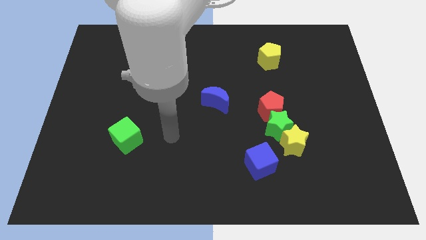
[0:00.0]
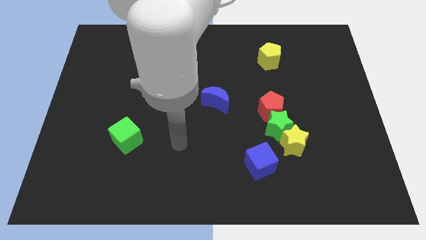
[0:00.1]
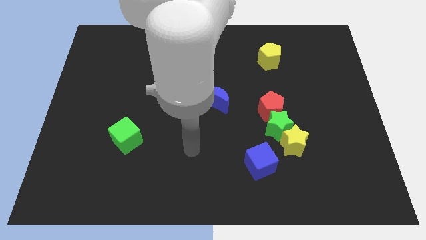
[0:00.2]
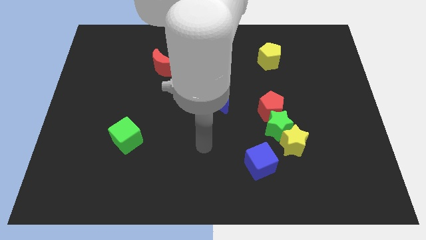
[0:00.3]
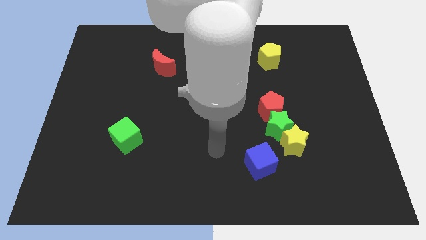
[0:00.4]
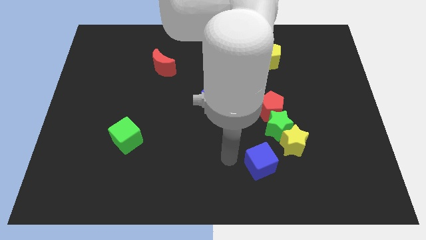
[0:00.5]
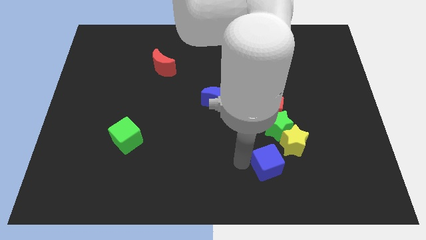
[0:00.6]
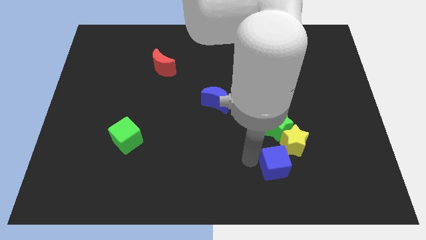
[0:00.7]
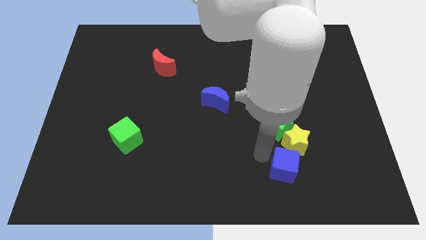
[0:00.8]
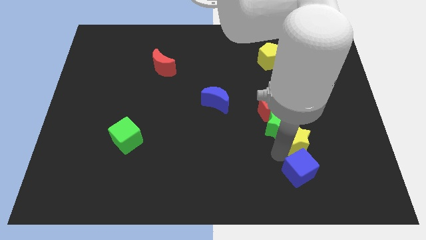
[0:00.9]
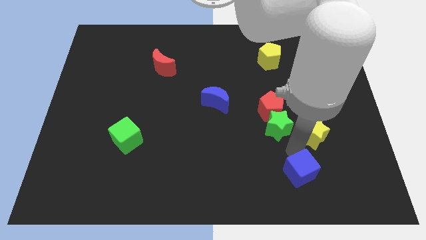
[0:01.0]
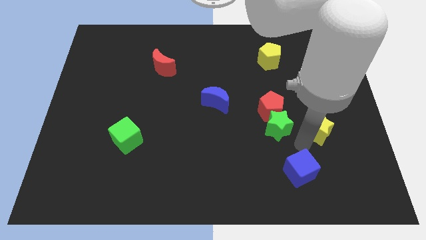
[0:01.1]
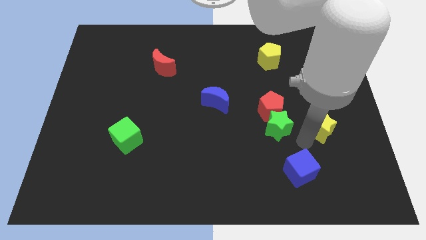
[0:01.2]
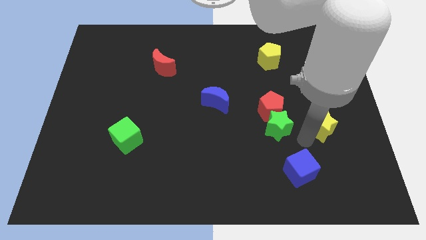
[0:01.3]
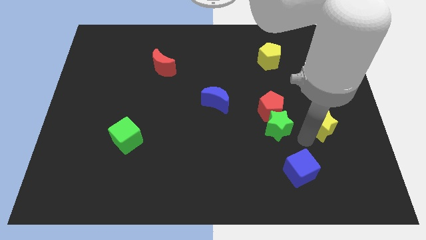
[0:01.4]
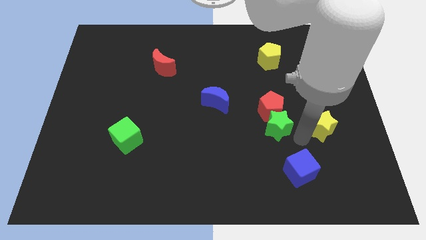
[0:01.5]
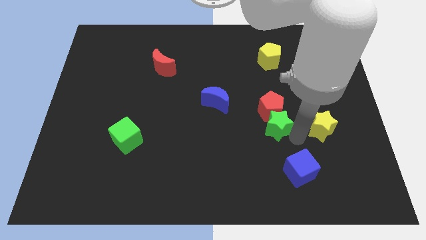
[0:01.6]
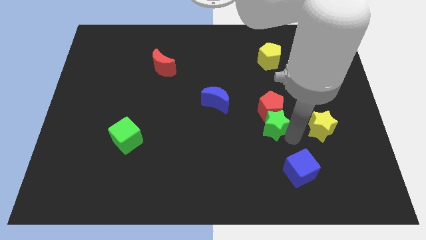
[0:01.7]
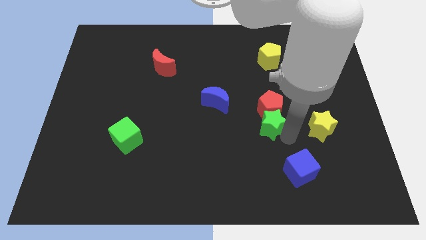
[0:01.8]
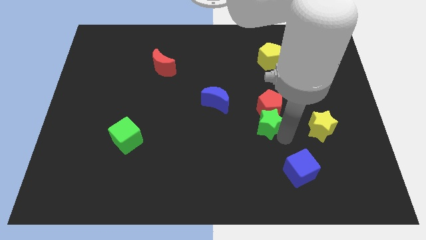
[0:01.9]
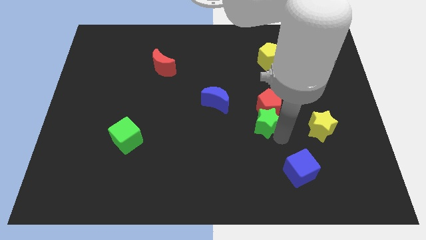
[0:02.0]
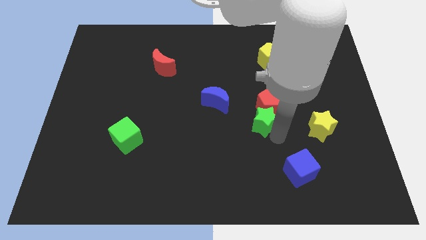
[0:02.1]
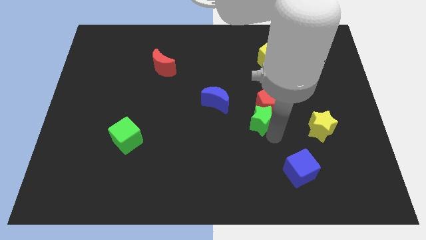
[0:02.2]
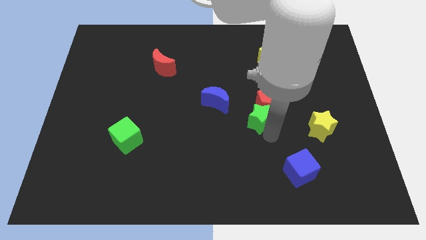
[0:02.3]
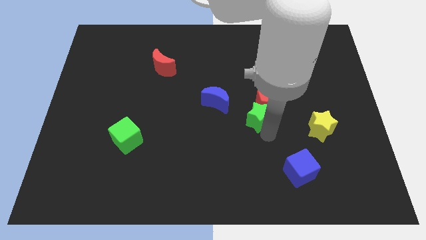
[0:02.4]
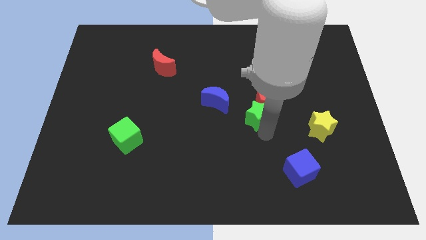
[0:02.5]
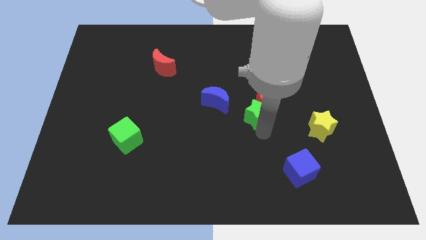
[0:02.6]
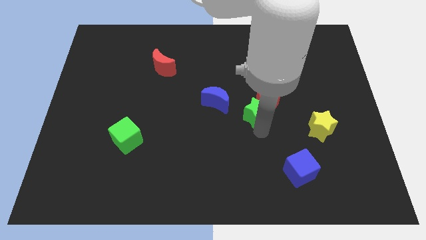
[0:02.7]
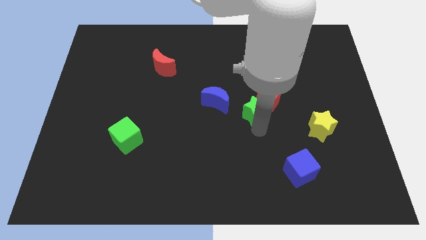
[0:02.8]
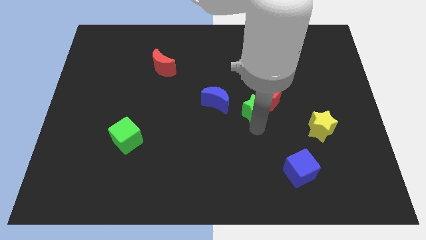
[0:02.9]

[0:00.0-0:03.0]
move the green star away from the group

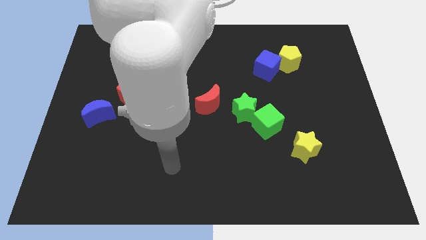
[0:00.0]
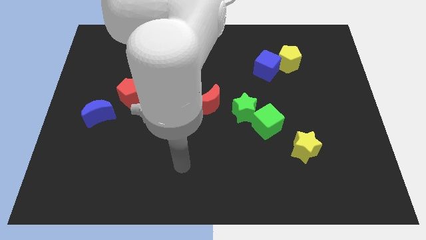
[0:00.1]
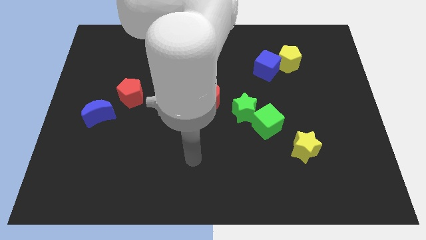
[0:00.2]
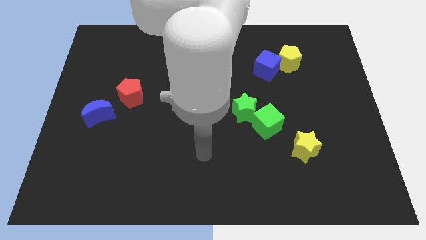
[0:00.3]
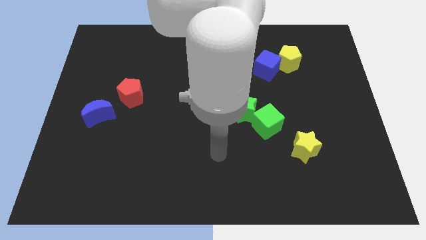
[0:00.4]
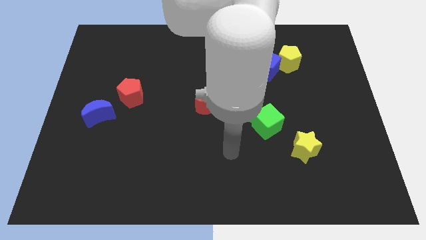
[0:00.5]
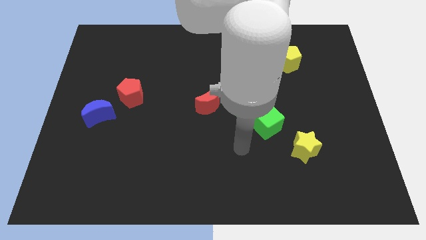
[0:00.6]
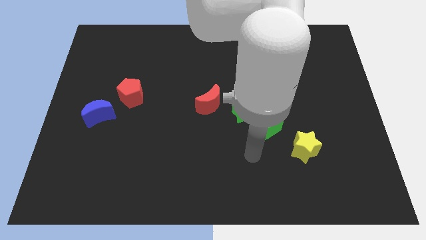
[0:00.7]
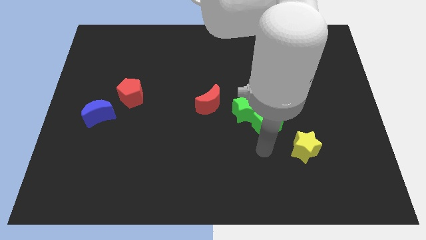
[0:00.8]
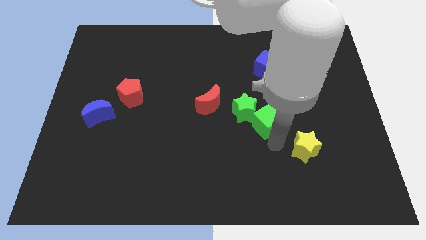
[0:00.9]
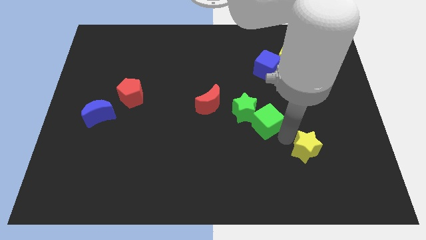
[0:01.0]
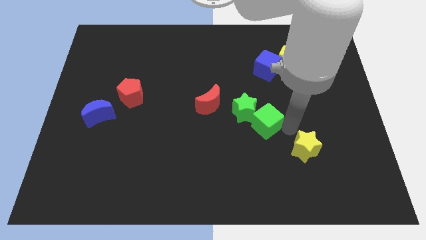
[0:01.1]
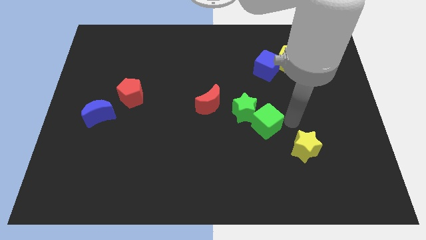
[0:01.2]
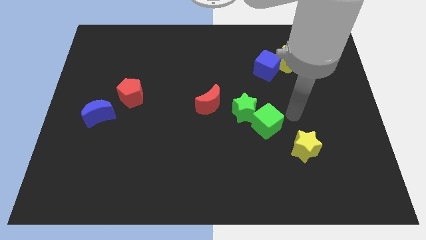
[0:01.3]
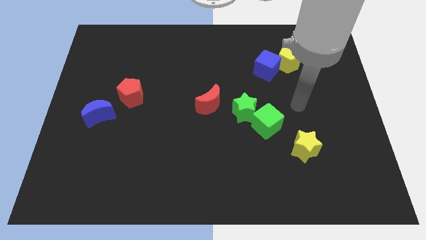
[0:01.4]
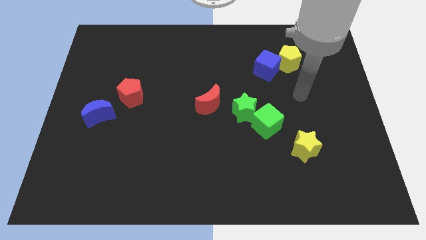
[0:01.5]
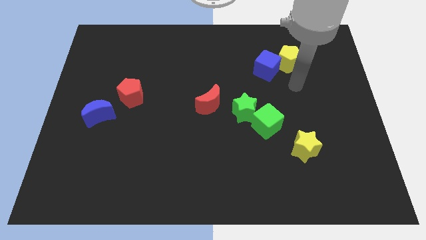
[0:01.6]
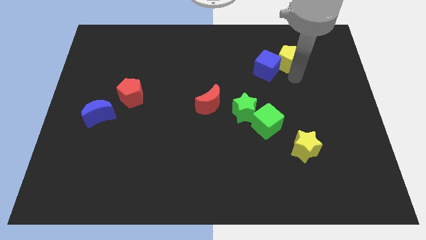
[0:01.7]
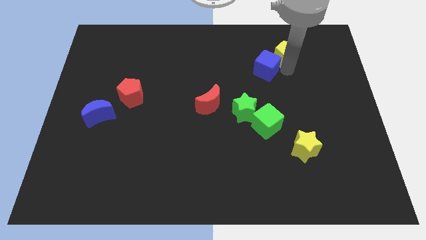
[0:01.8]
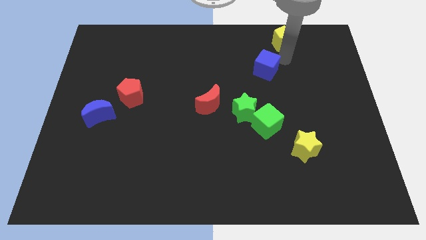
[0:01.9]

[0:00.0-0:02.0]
pull the blue cube apart from the yellow pentagon

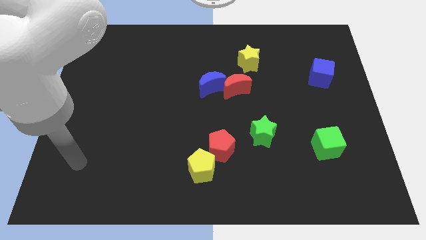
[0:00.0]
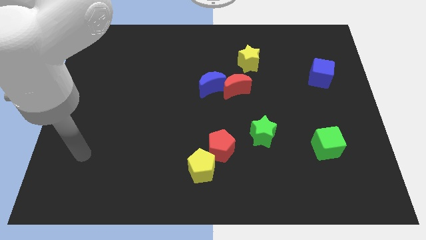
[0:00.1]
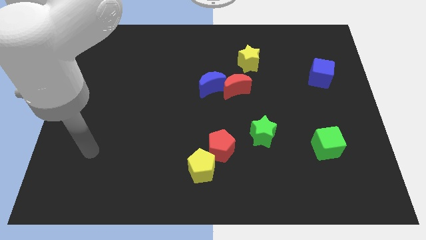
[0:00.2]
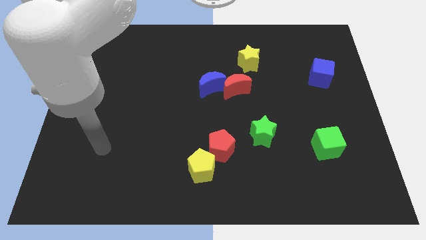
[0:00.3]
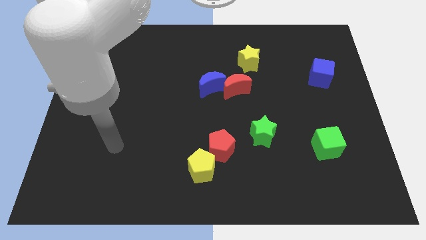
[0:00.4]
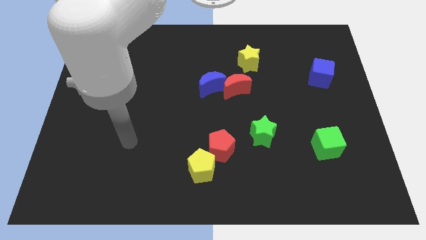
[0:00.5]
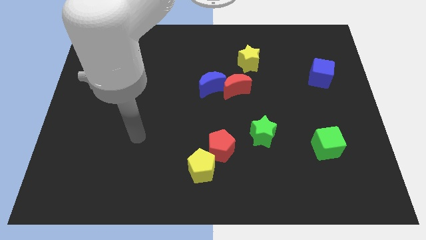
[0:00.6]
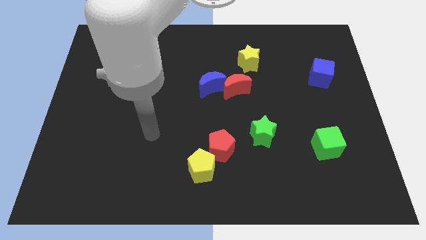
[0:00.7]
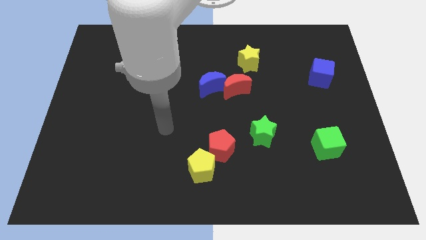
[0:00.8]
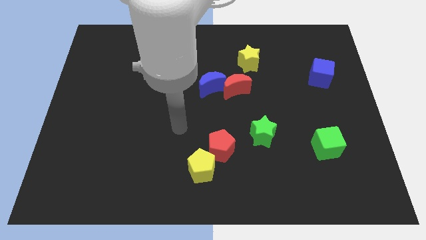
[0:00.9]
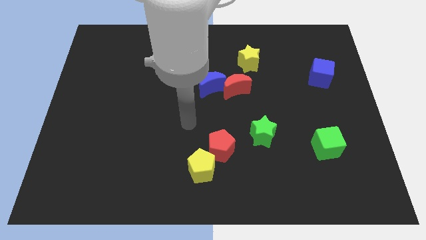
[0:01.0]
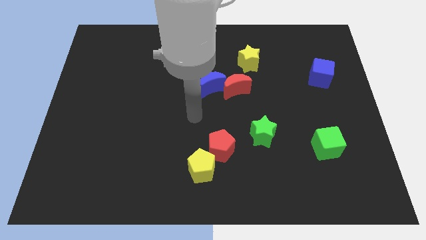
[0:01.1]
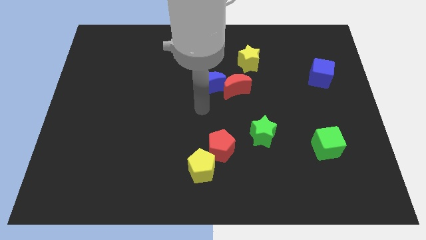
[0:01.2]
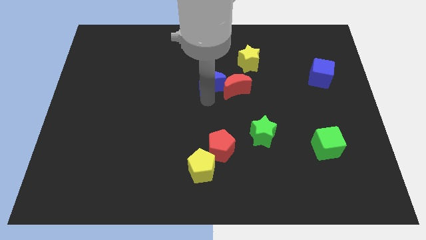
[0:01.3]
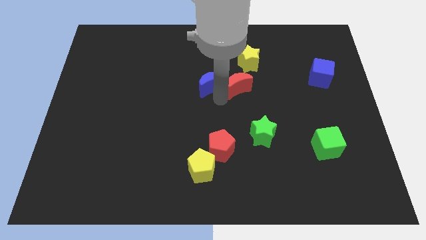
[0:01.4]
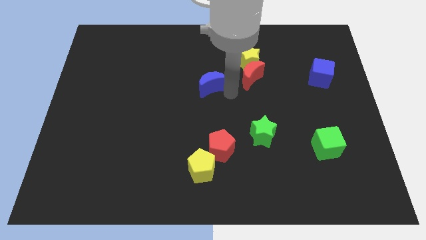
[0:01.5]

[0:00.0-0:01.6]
move the blue moon away from the red moon

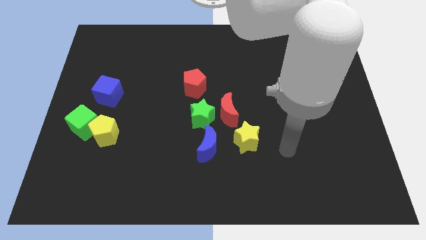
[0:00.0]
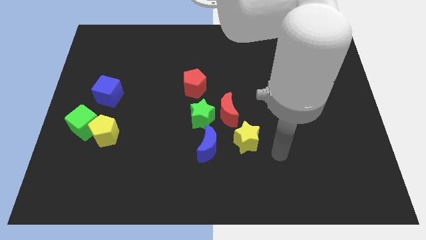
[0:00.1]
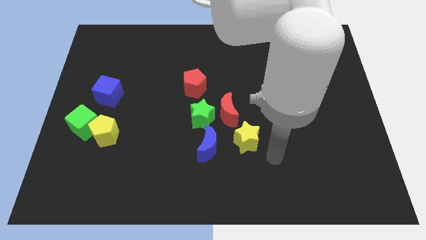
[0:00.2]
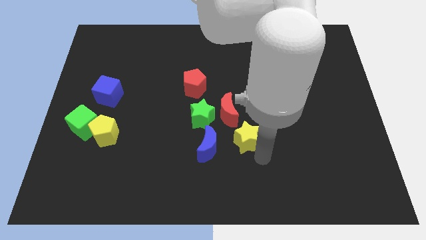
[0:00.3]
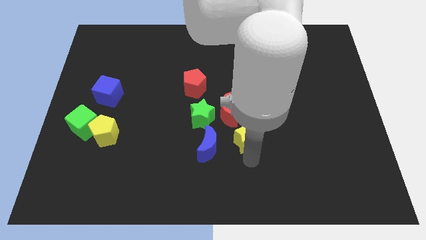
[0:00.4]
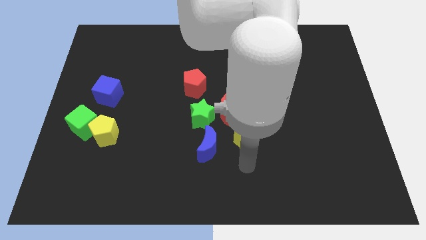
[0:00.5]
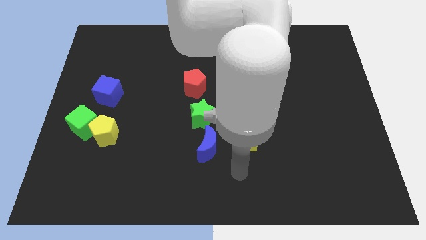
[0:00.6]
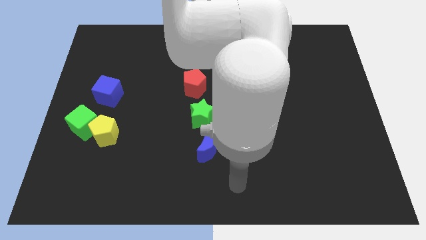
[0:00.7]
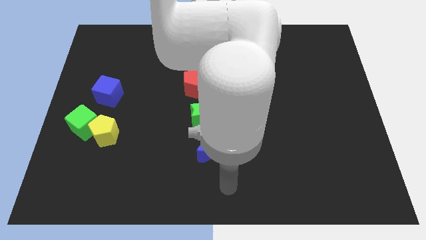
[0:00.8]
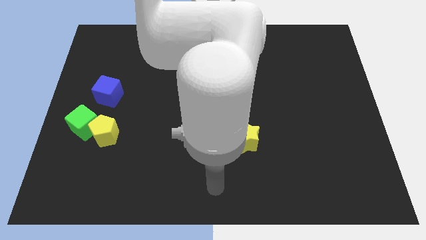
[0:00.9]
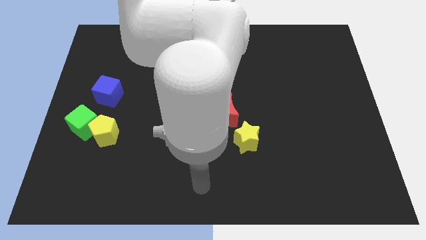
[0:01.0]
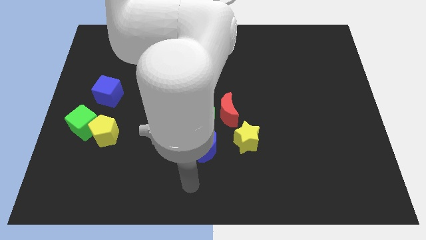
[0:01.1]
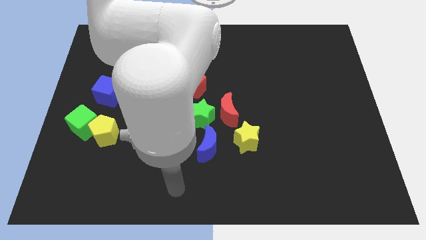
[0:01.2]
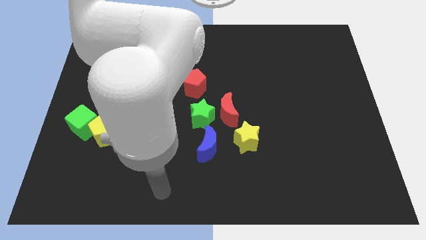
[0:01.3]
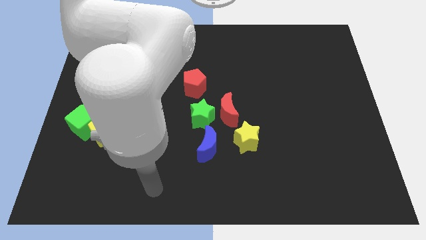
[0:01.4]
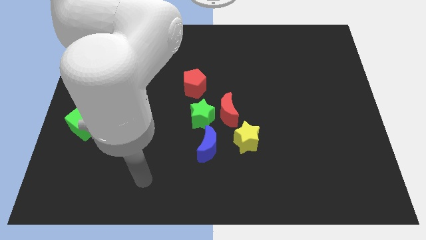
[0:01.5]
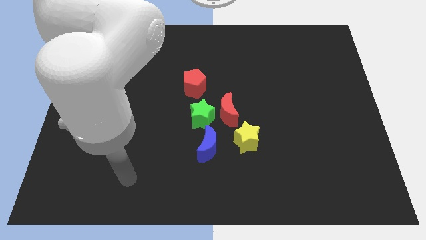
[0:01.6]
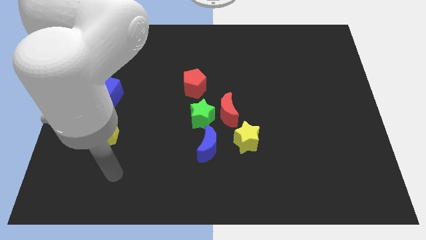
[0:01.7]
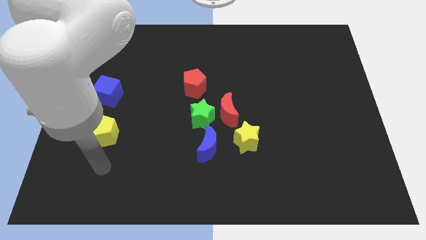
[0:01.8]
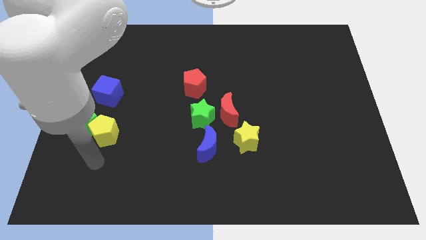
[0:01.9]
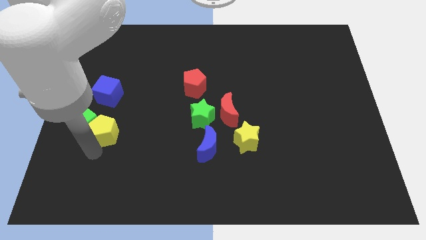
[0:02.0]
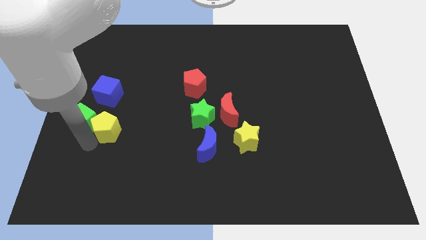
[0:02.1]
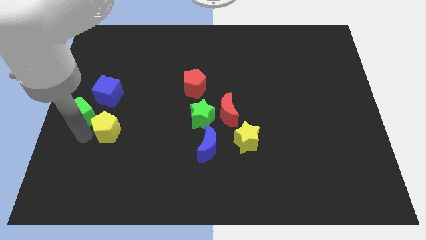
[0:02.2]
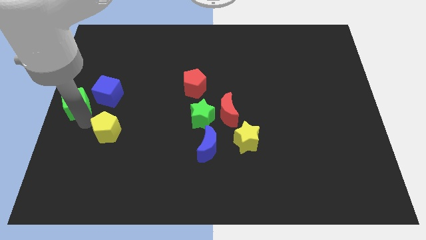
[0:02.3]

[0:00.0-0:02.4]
move the yellow pentagon away from the green cube

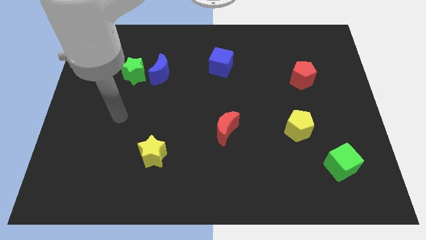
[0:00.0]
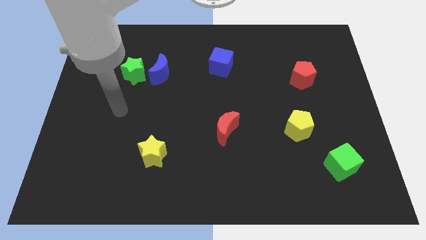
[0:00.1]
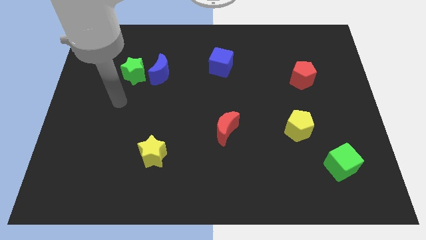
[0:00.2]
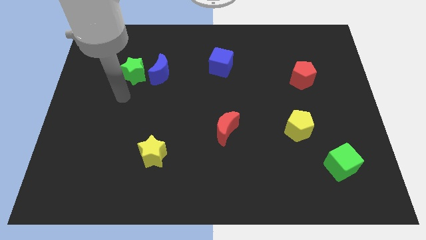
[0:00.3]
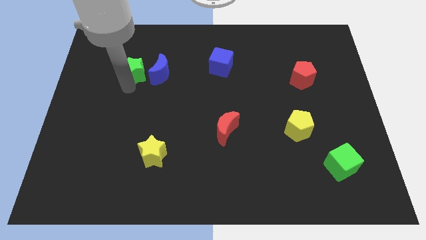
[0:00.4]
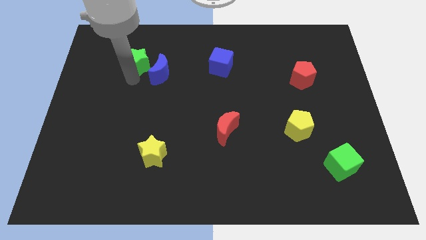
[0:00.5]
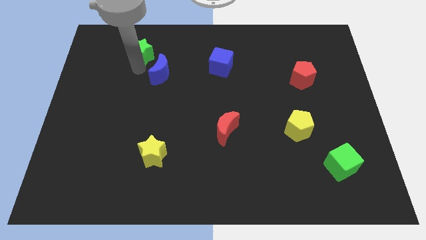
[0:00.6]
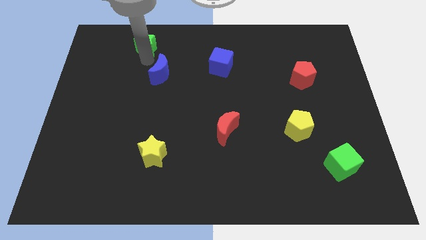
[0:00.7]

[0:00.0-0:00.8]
separate the blue moon from the green star
